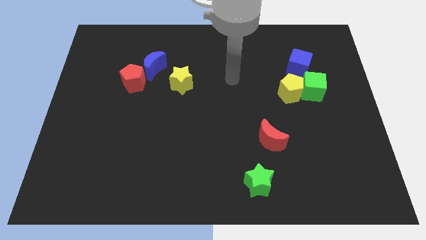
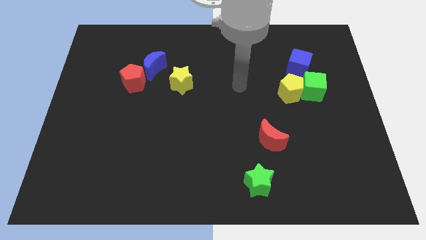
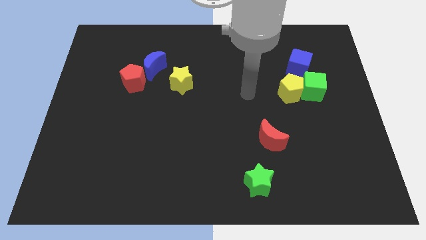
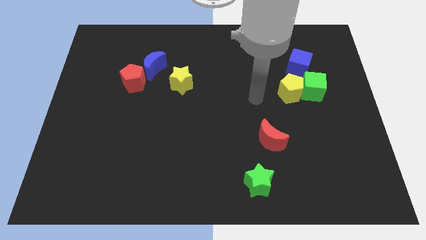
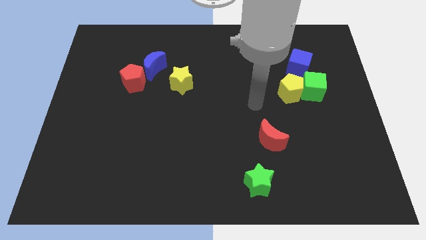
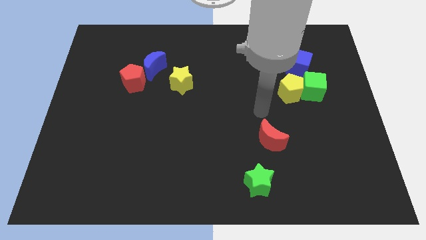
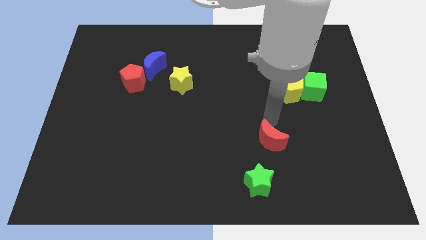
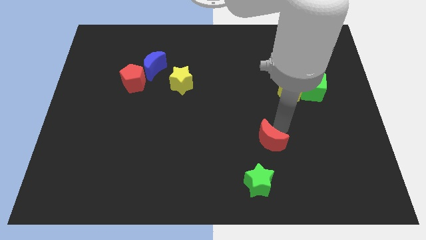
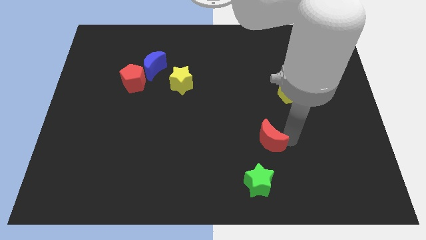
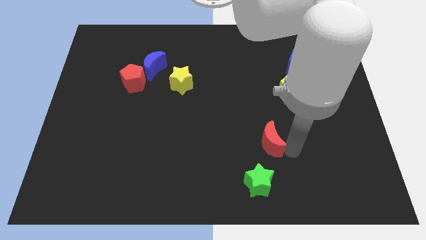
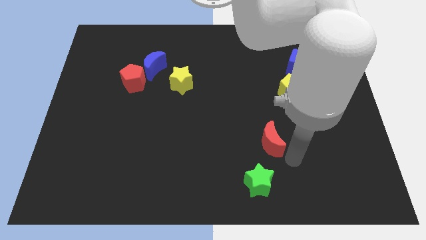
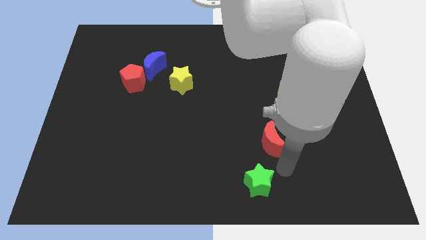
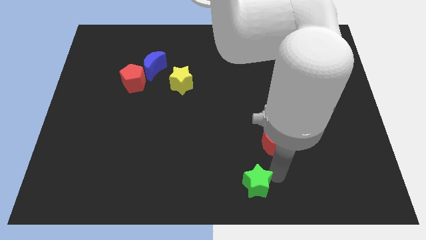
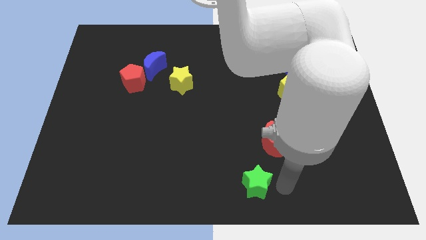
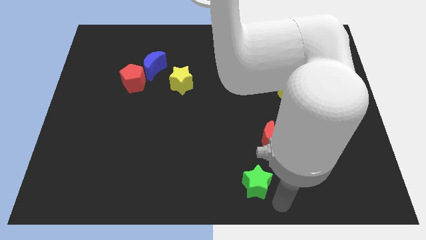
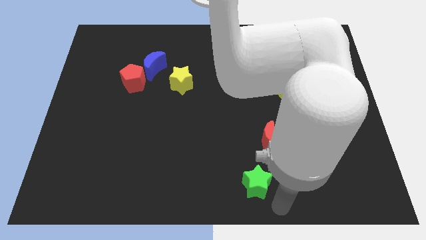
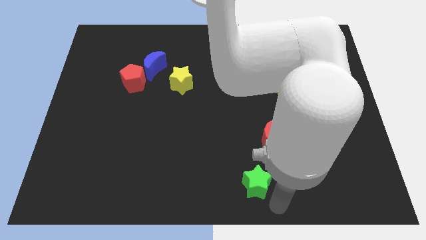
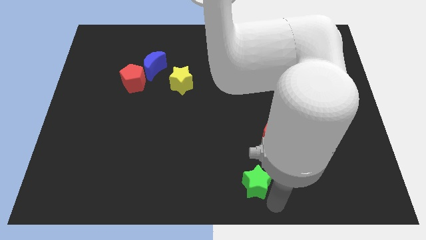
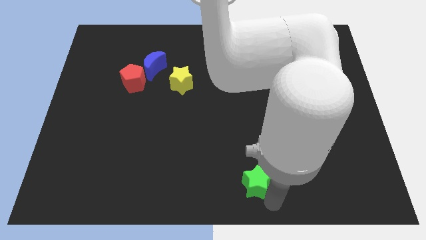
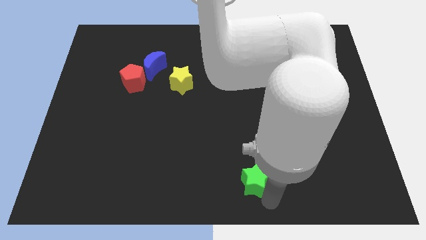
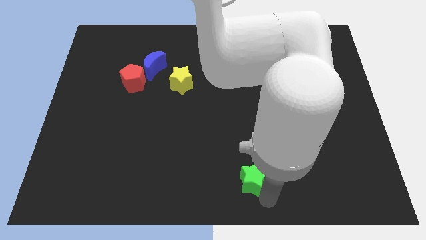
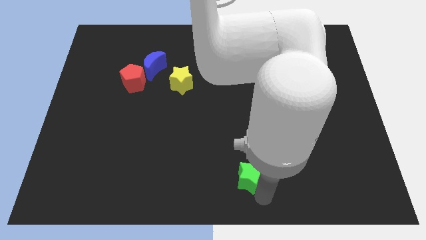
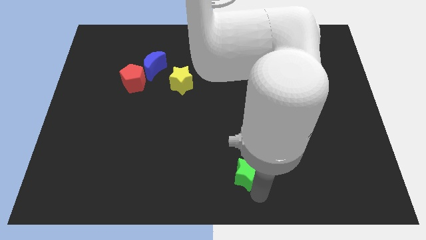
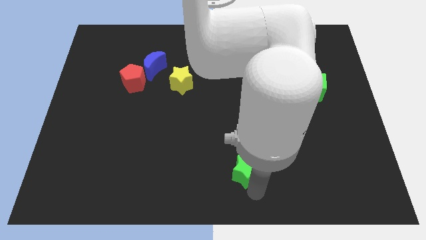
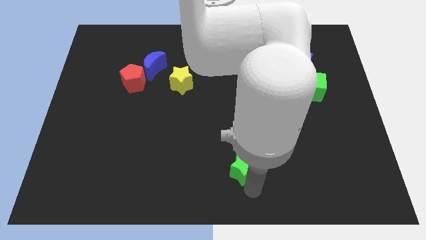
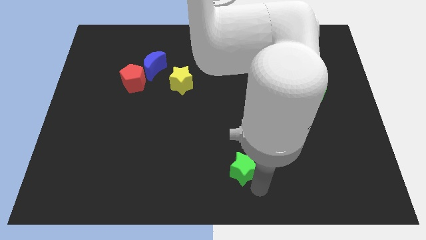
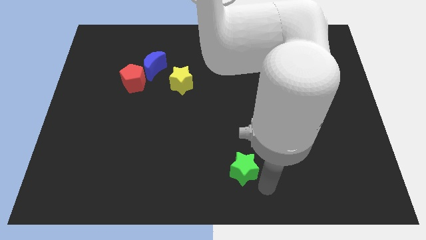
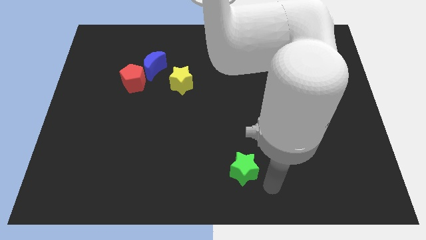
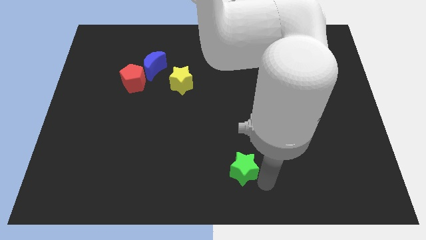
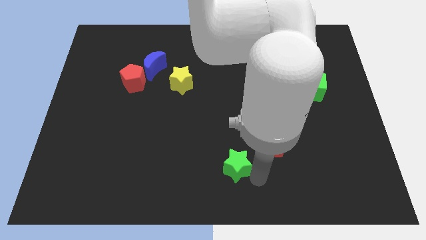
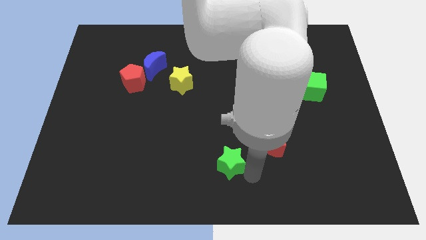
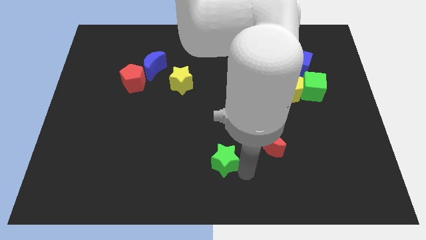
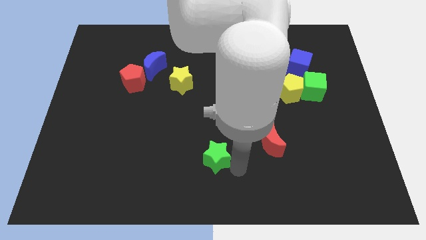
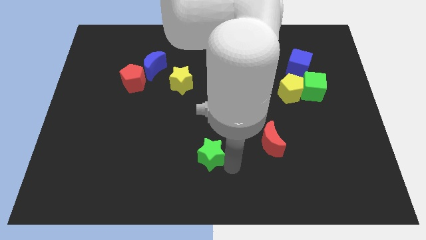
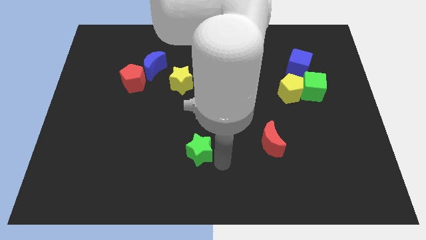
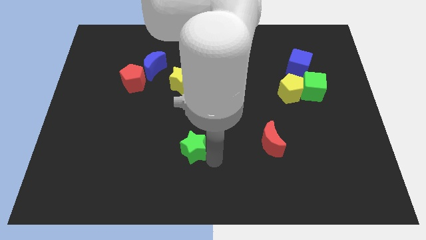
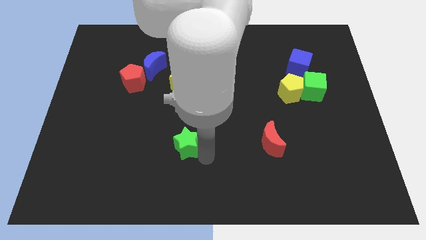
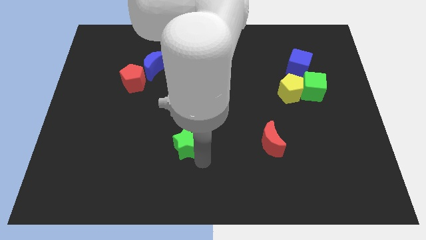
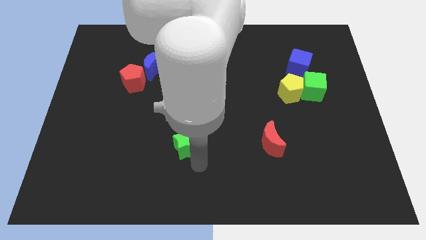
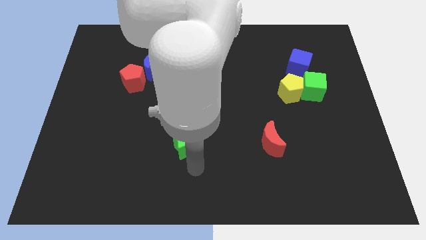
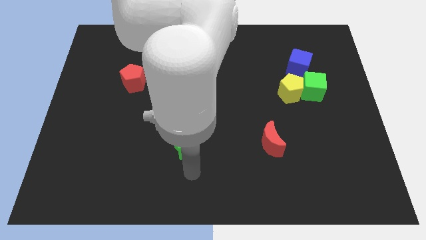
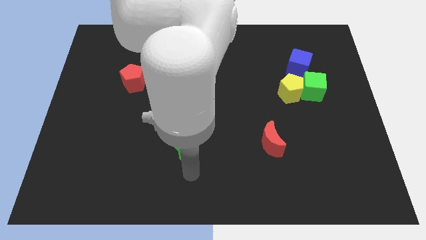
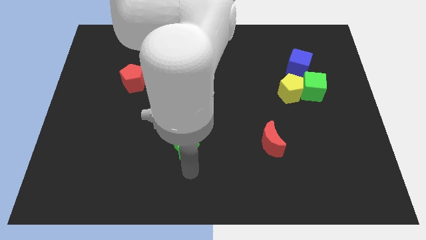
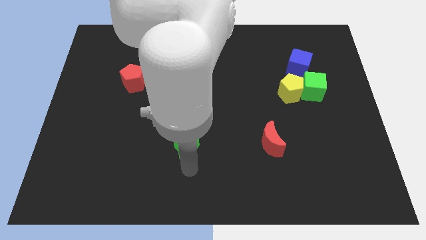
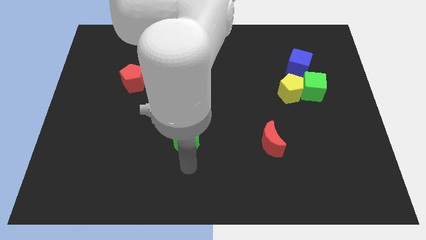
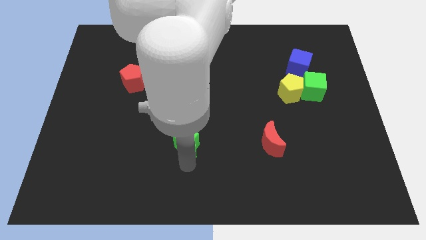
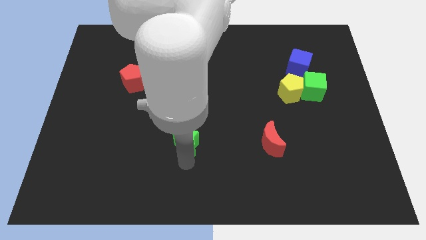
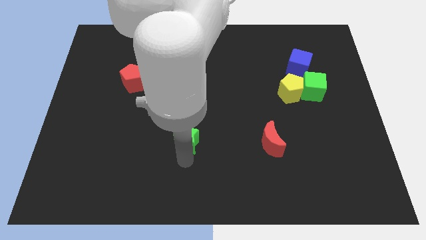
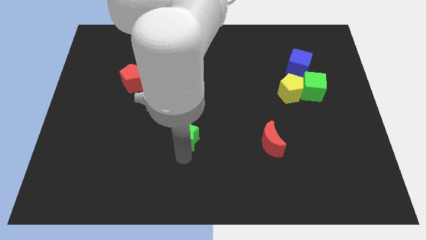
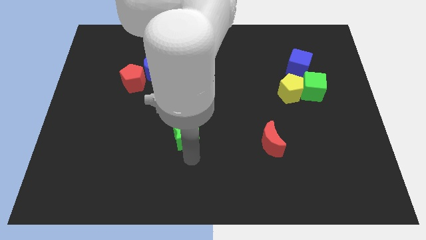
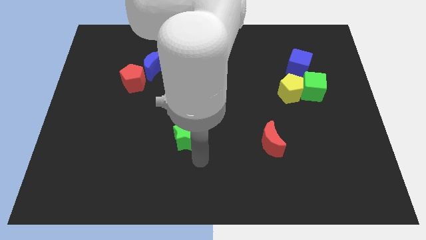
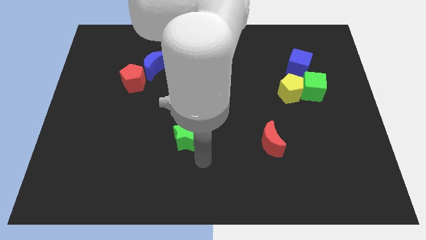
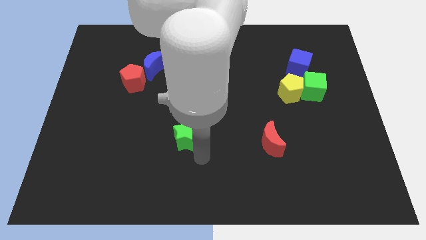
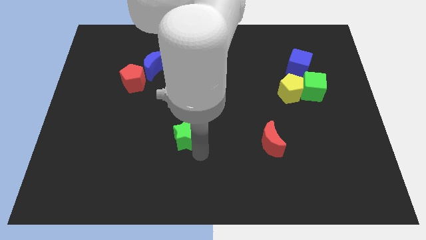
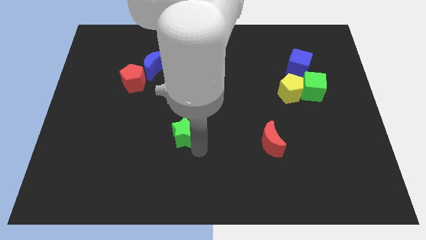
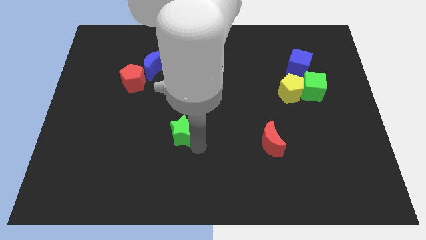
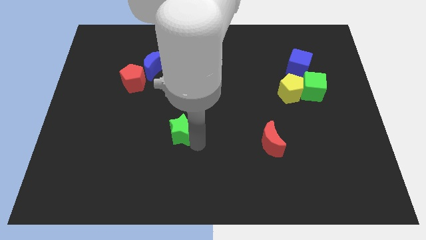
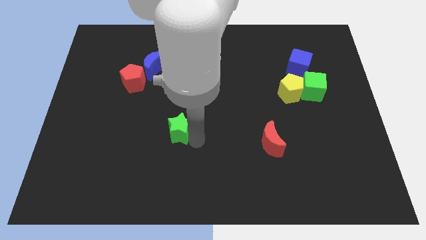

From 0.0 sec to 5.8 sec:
push the green star up and to the left diagonally

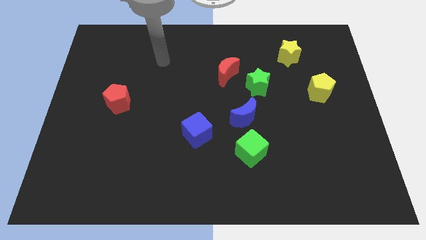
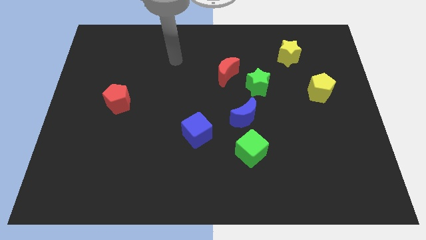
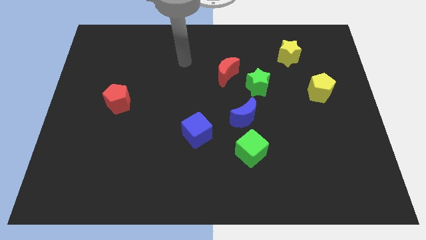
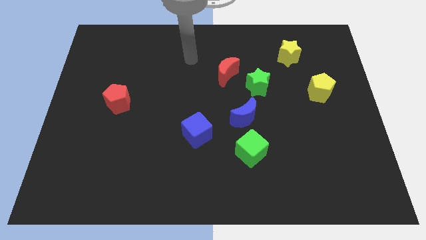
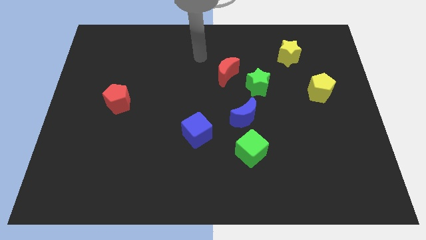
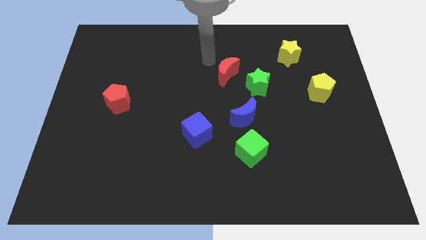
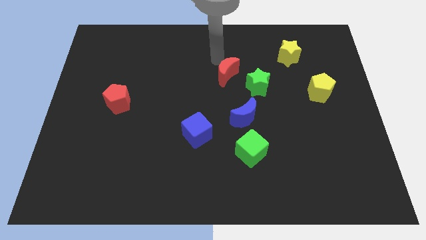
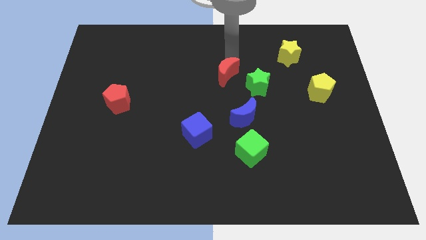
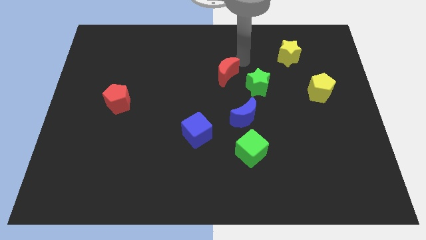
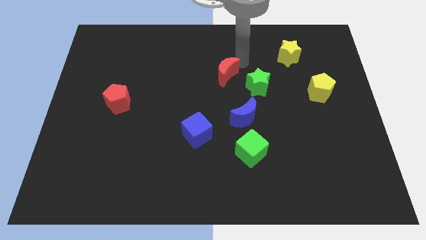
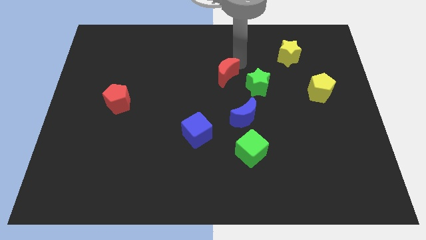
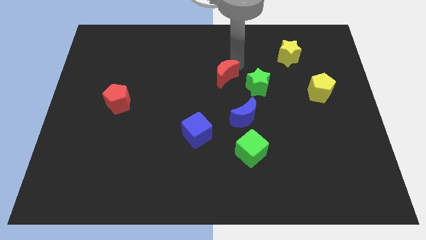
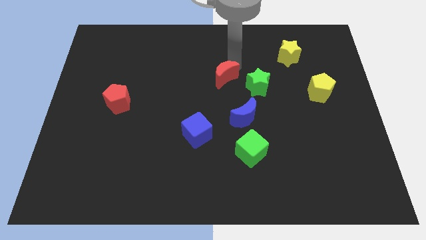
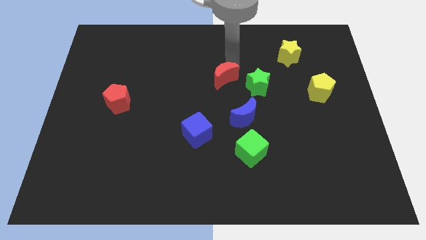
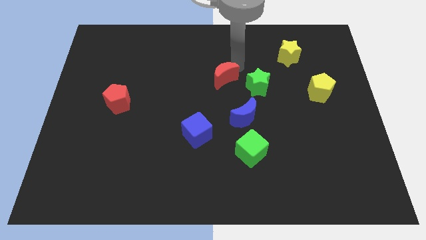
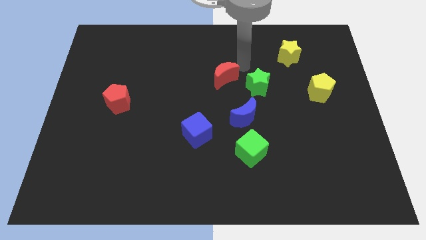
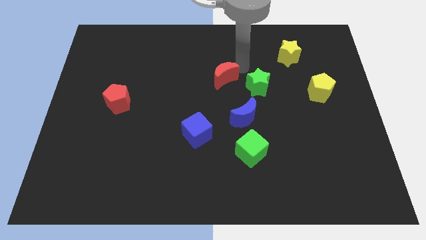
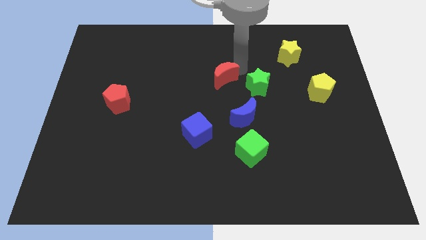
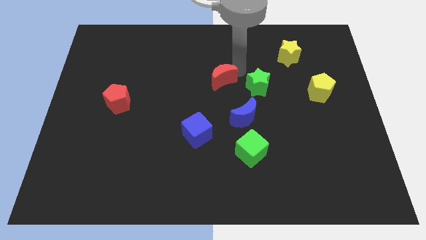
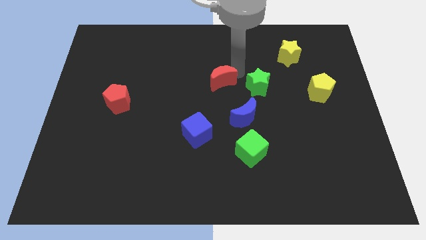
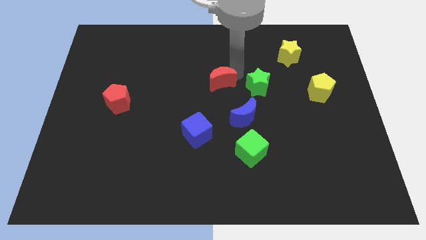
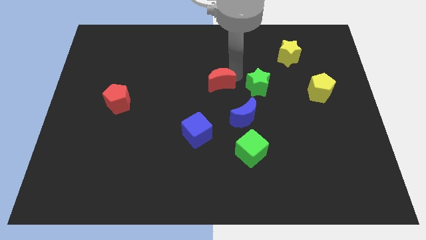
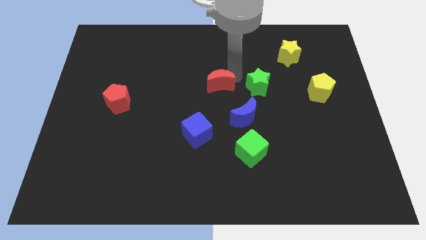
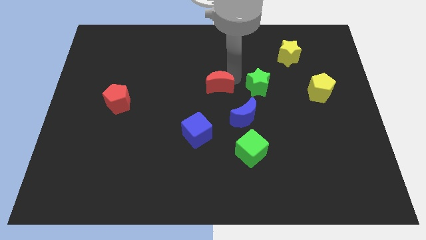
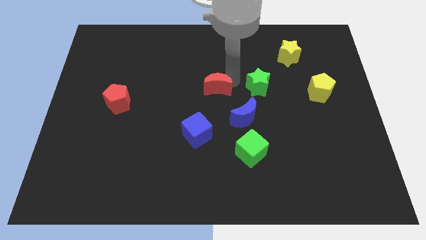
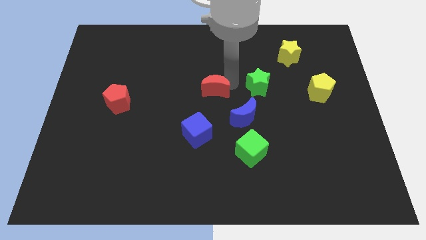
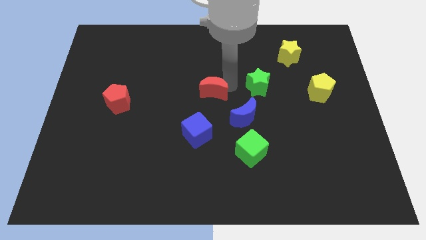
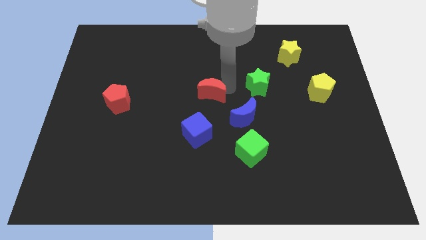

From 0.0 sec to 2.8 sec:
slightly slide the red moon downwards and then to the left
